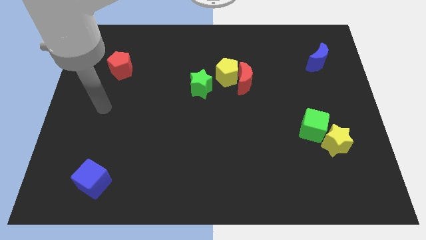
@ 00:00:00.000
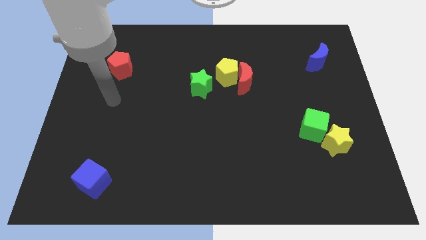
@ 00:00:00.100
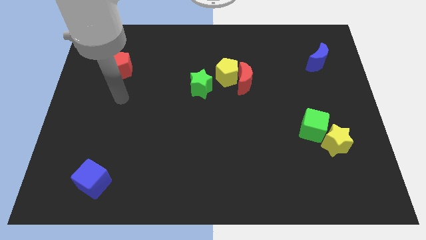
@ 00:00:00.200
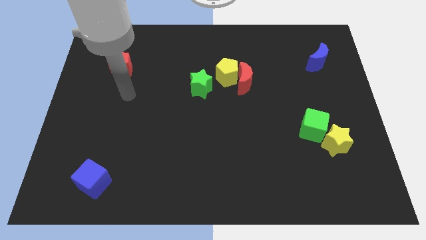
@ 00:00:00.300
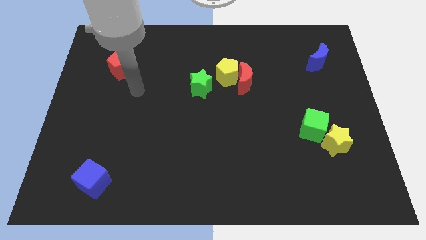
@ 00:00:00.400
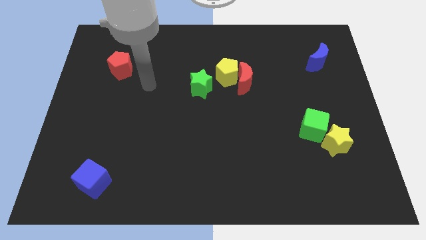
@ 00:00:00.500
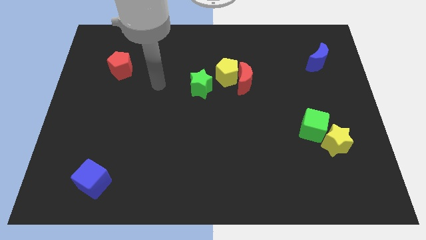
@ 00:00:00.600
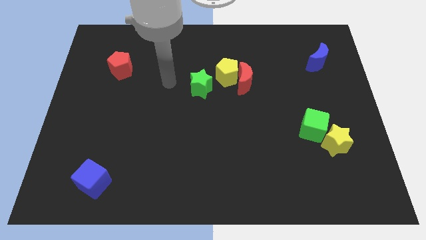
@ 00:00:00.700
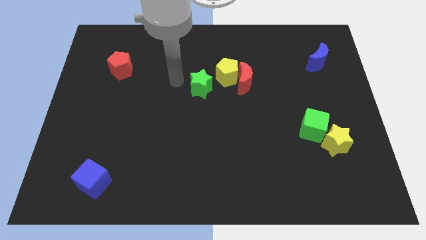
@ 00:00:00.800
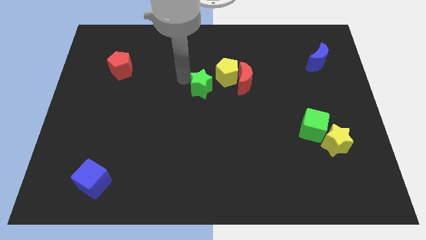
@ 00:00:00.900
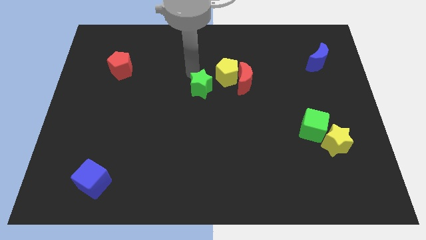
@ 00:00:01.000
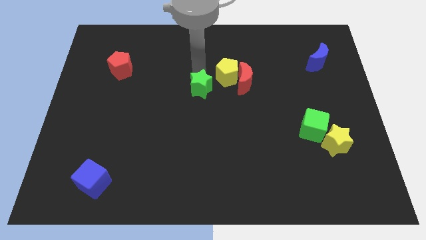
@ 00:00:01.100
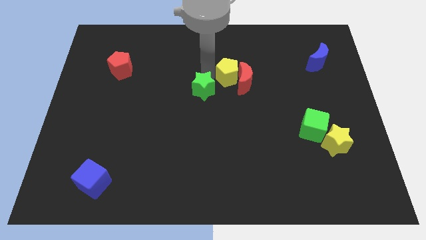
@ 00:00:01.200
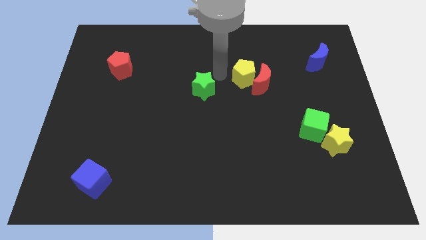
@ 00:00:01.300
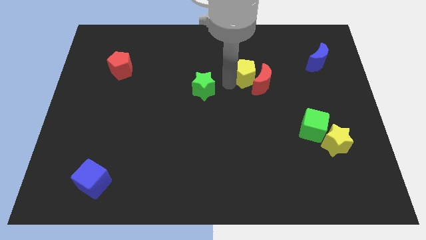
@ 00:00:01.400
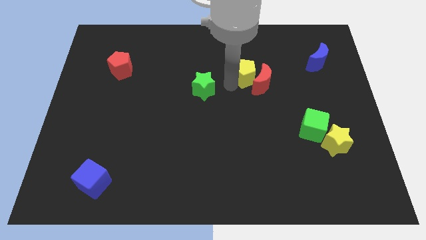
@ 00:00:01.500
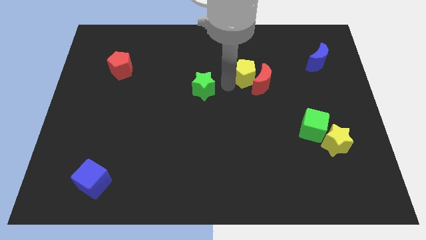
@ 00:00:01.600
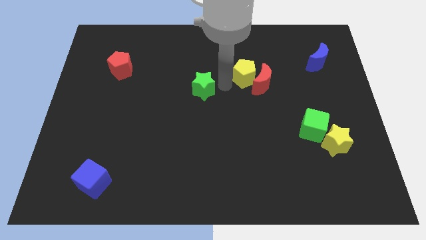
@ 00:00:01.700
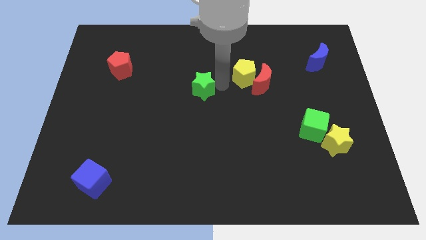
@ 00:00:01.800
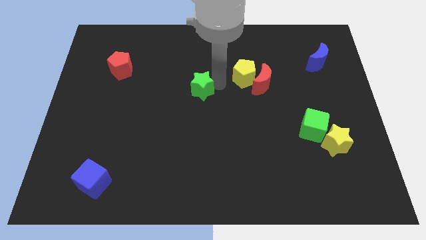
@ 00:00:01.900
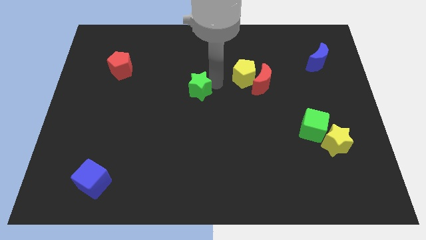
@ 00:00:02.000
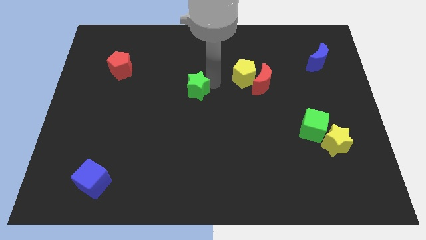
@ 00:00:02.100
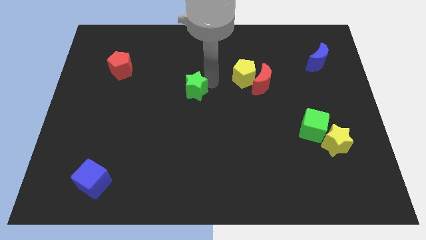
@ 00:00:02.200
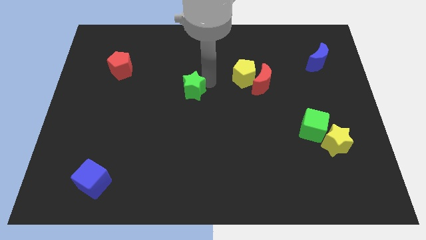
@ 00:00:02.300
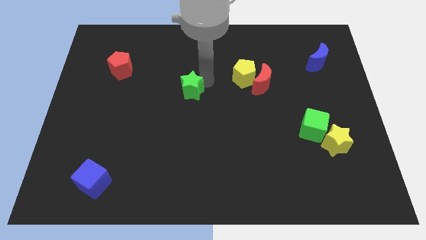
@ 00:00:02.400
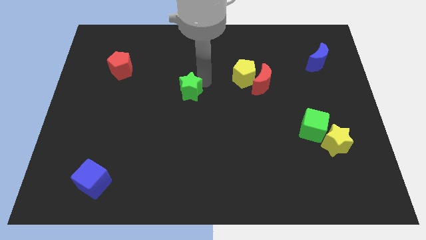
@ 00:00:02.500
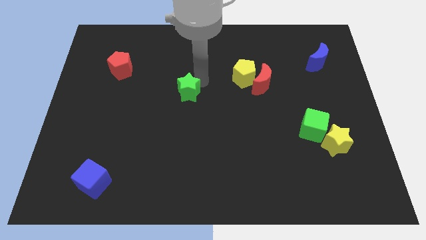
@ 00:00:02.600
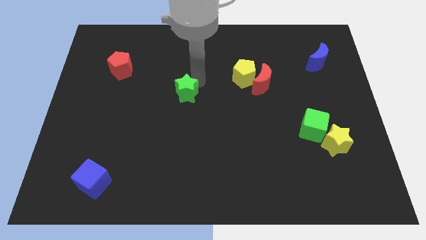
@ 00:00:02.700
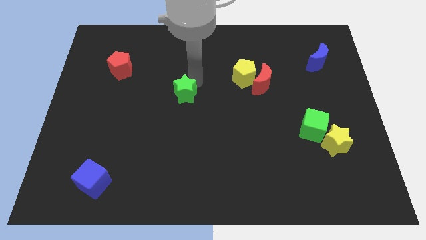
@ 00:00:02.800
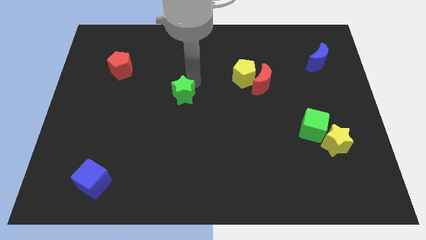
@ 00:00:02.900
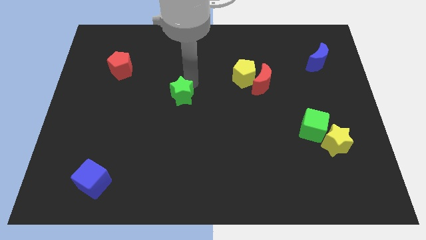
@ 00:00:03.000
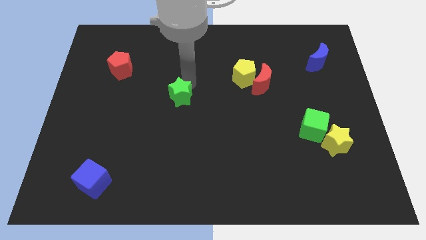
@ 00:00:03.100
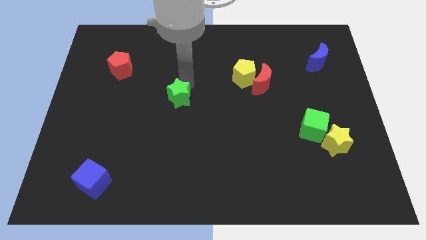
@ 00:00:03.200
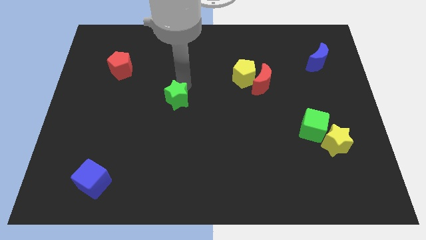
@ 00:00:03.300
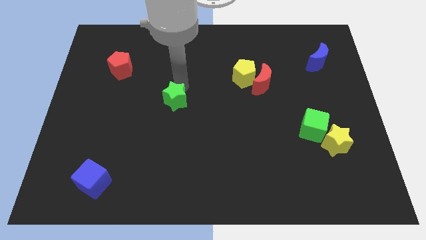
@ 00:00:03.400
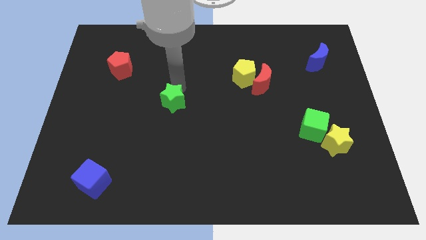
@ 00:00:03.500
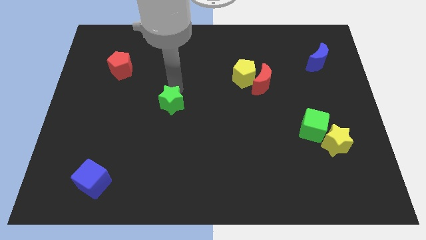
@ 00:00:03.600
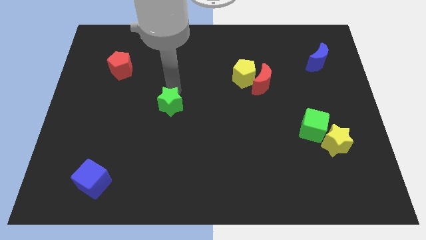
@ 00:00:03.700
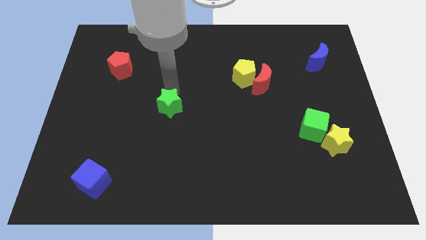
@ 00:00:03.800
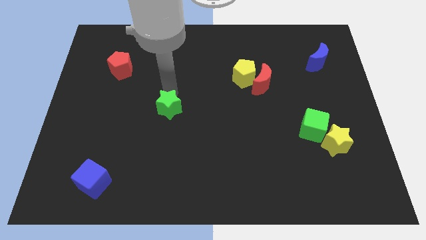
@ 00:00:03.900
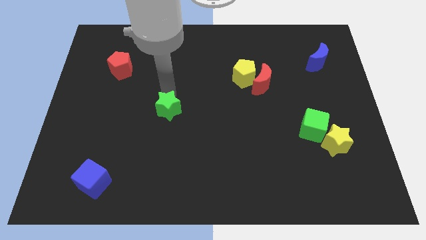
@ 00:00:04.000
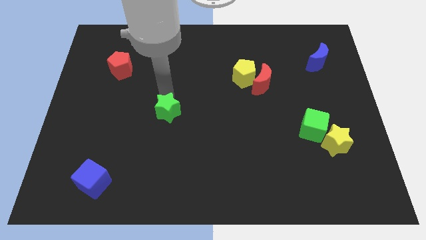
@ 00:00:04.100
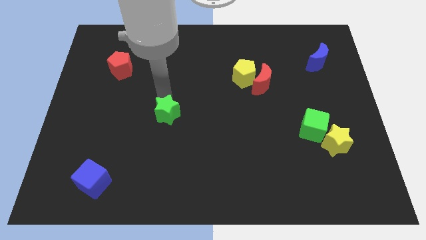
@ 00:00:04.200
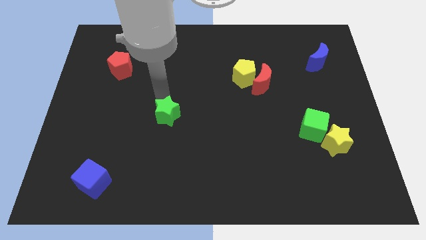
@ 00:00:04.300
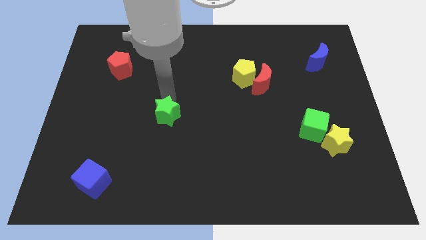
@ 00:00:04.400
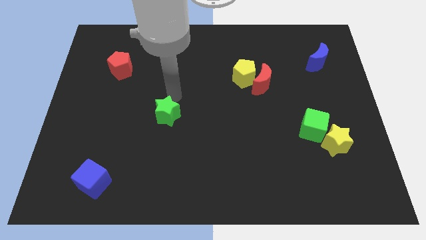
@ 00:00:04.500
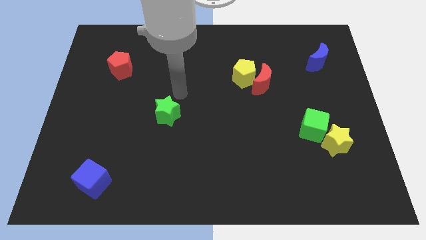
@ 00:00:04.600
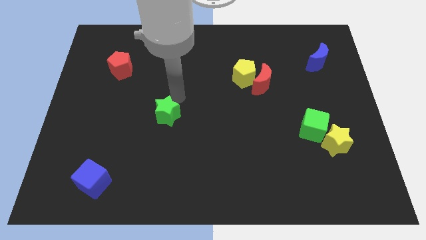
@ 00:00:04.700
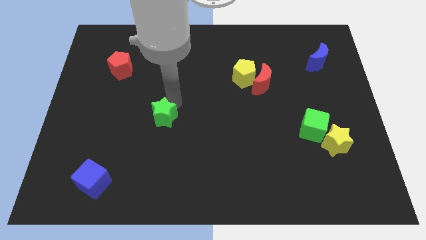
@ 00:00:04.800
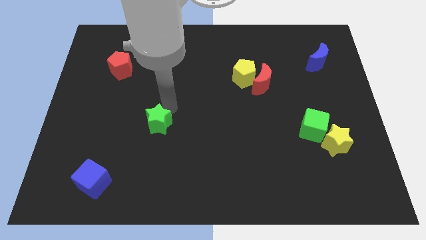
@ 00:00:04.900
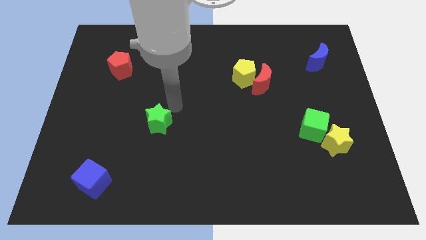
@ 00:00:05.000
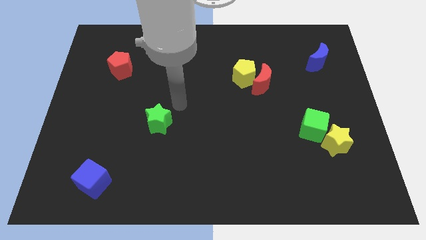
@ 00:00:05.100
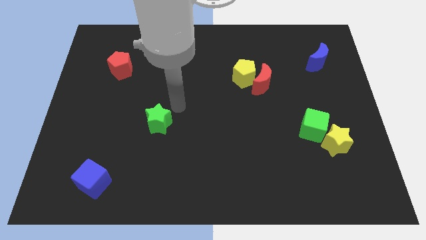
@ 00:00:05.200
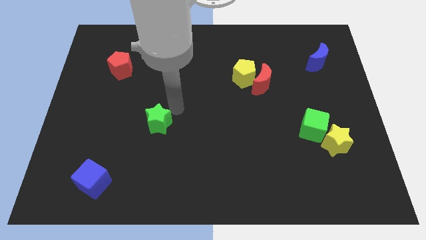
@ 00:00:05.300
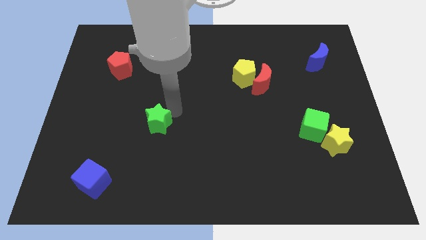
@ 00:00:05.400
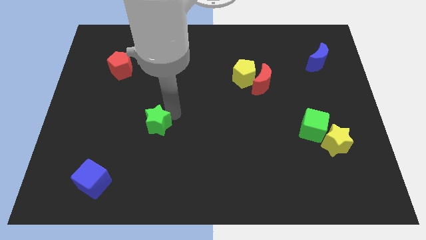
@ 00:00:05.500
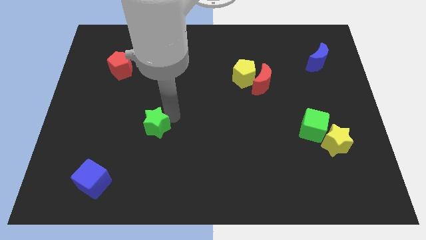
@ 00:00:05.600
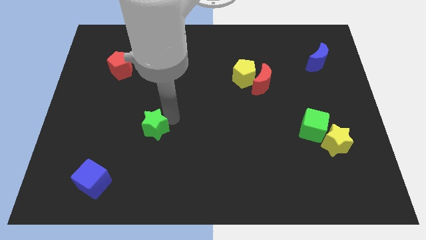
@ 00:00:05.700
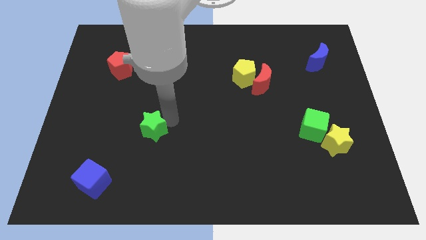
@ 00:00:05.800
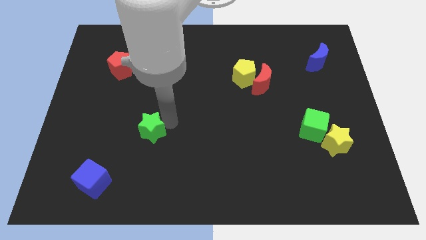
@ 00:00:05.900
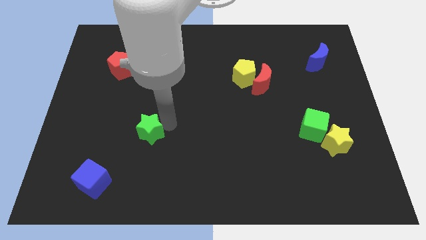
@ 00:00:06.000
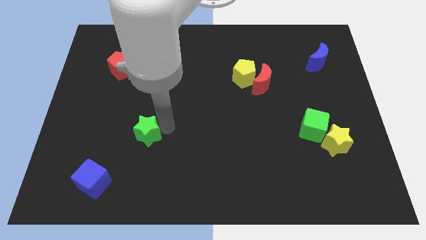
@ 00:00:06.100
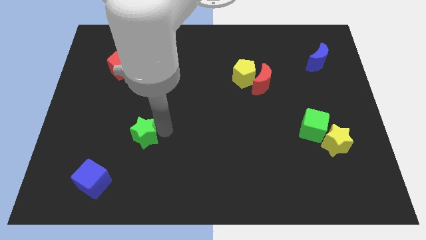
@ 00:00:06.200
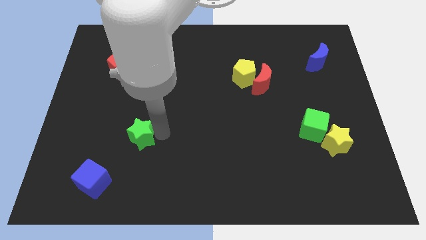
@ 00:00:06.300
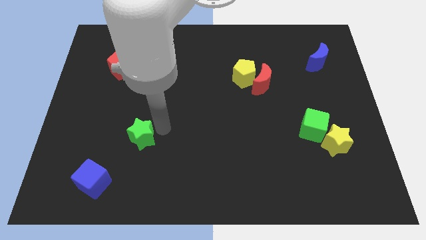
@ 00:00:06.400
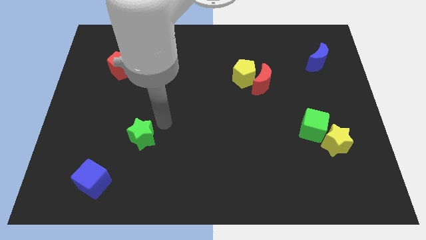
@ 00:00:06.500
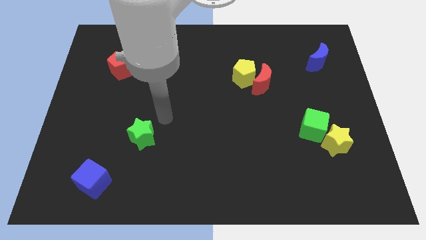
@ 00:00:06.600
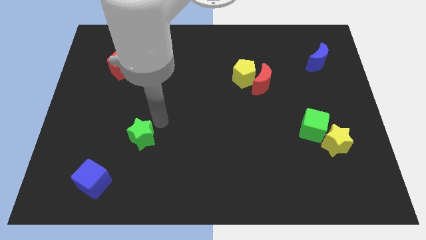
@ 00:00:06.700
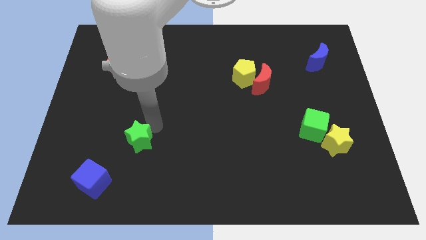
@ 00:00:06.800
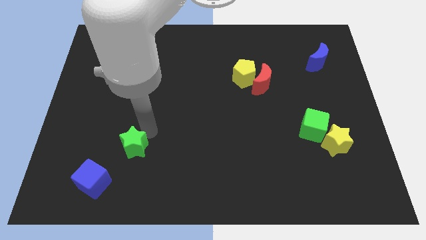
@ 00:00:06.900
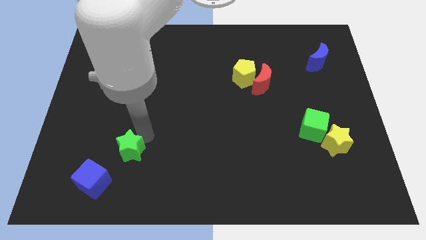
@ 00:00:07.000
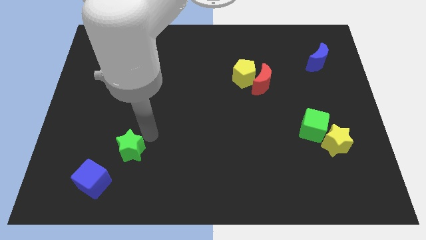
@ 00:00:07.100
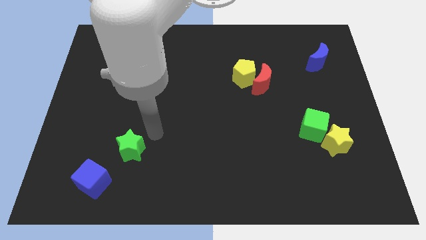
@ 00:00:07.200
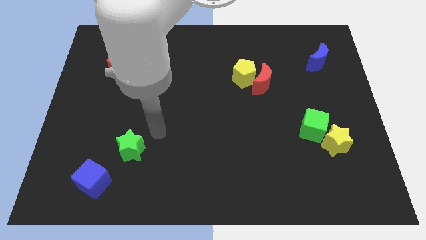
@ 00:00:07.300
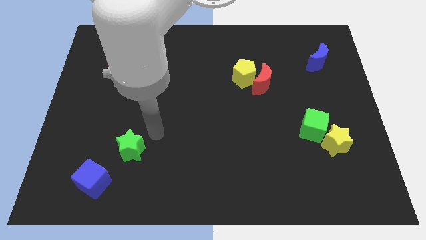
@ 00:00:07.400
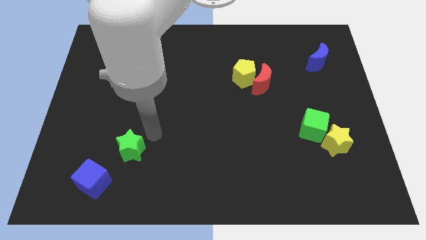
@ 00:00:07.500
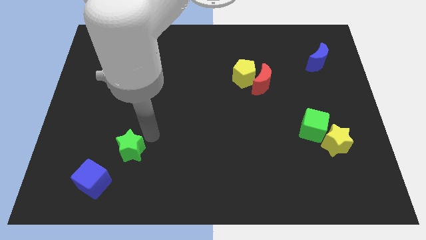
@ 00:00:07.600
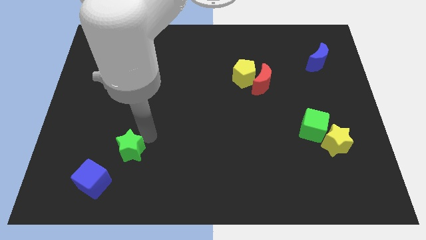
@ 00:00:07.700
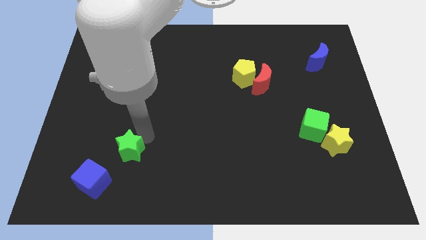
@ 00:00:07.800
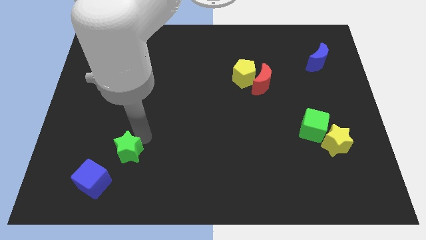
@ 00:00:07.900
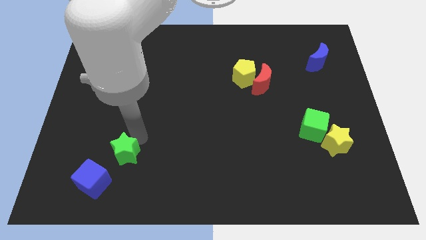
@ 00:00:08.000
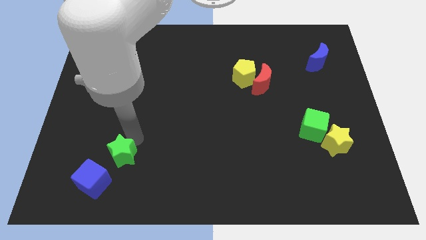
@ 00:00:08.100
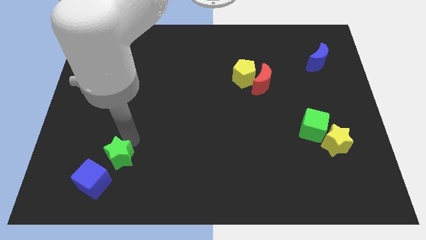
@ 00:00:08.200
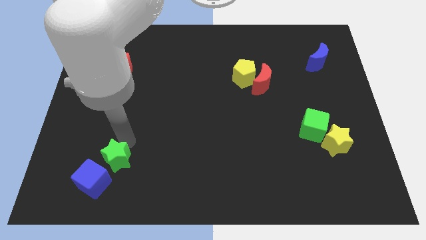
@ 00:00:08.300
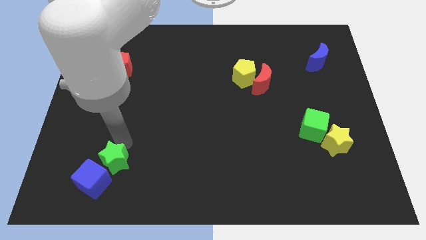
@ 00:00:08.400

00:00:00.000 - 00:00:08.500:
push the green star next to the blue cube
